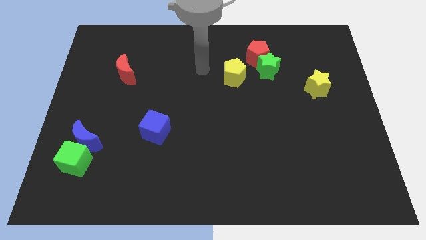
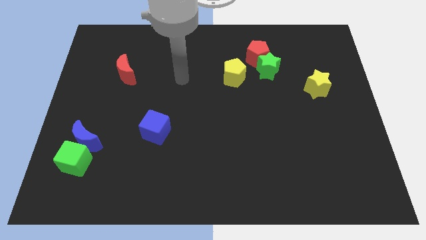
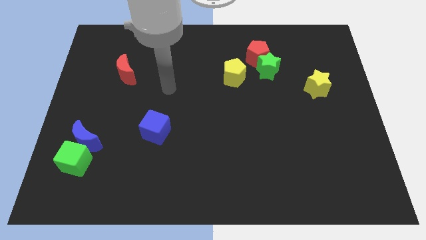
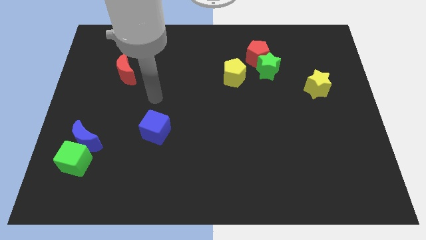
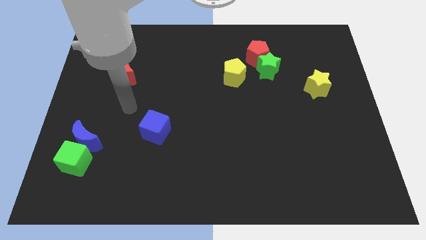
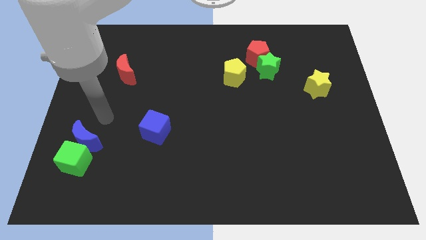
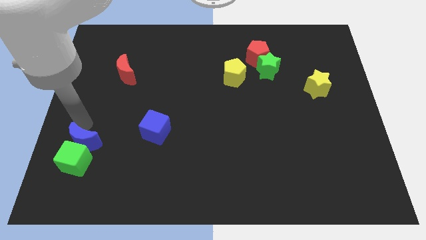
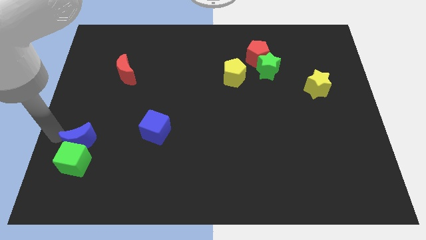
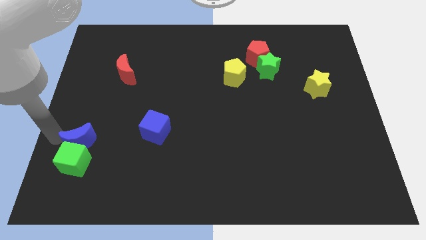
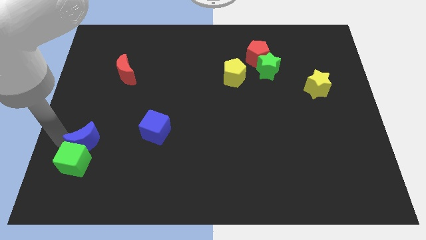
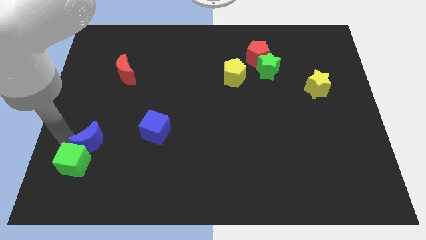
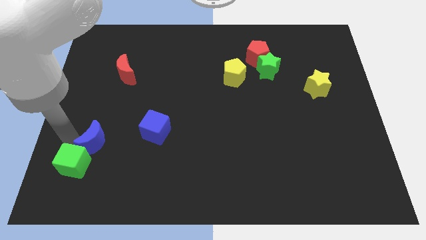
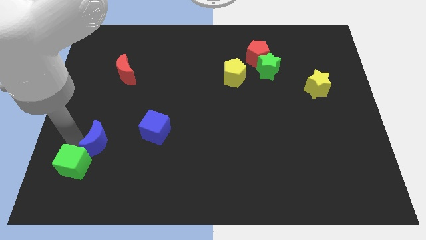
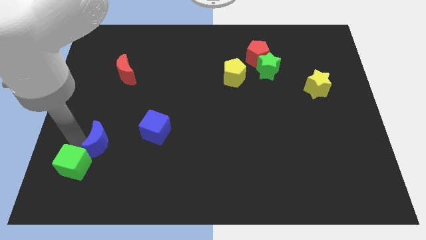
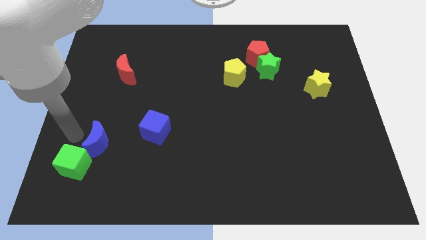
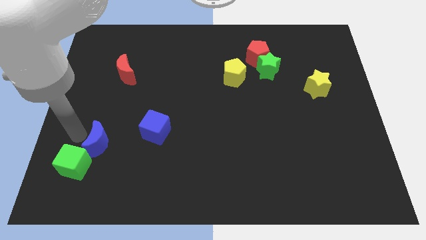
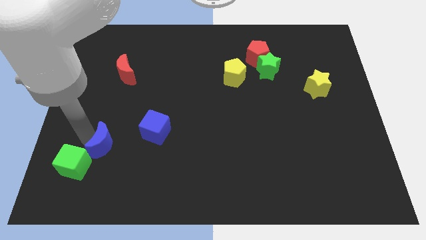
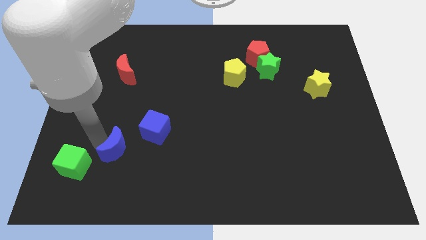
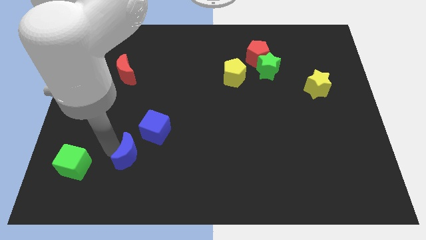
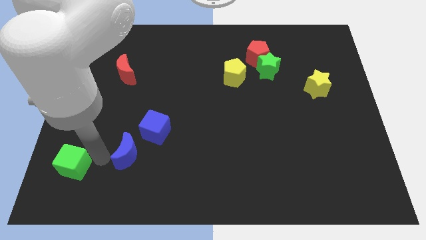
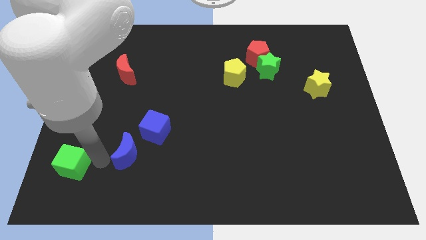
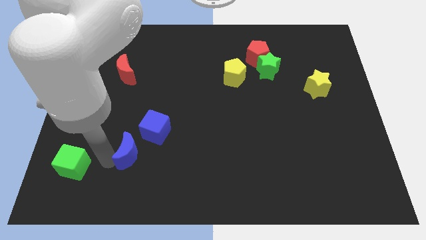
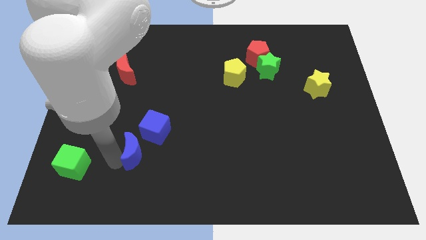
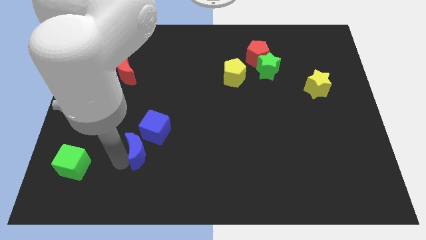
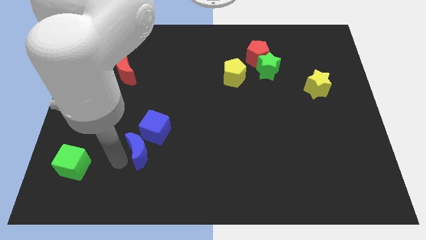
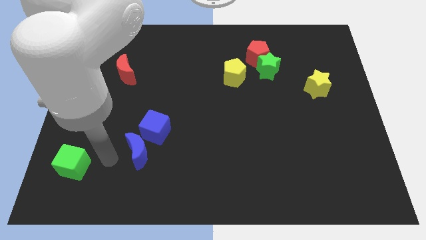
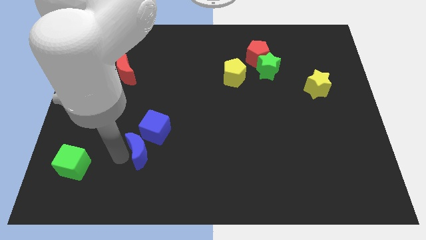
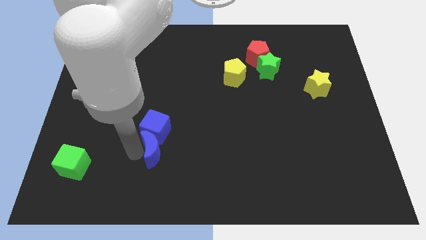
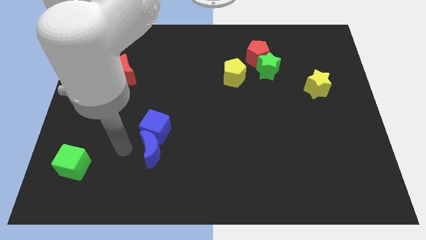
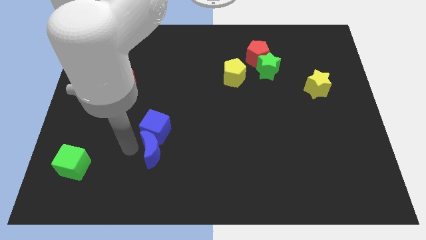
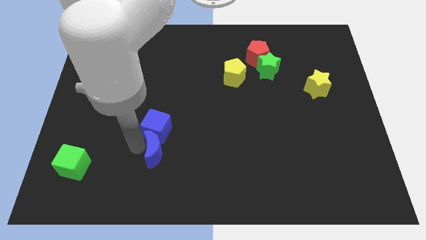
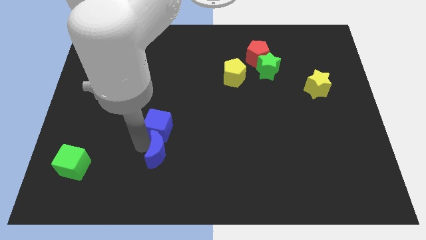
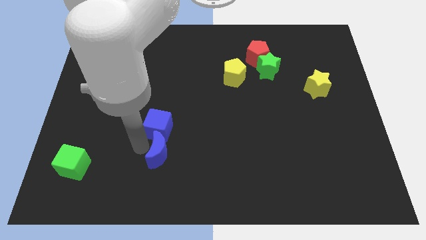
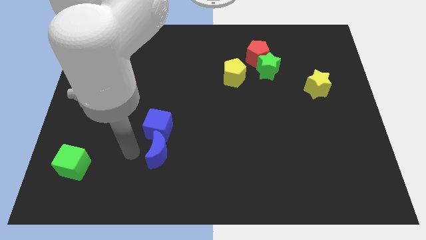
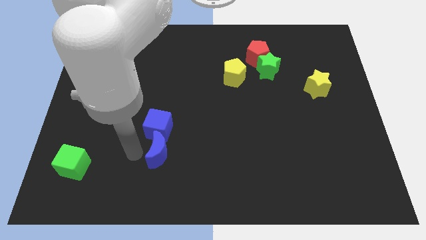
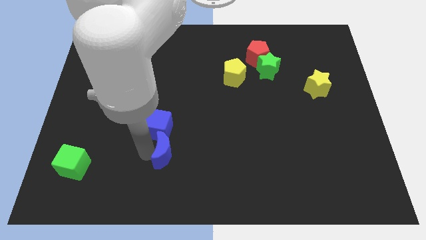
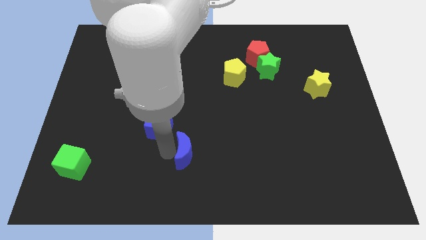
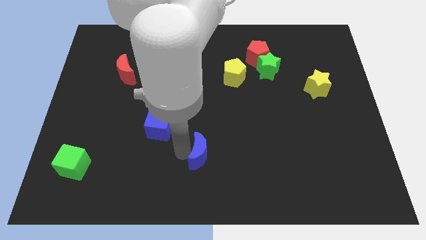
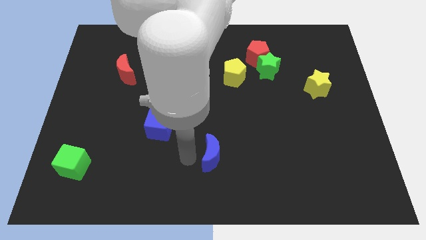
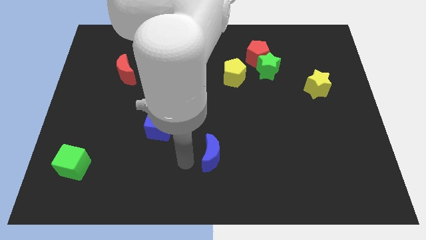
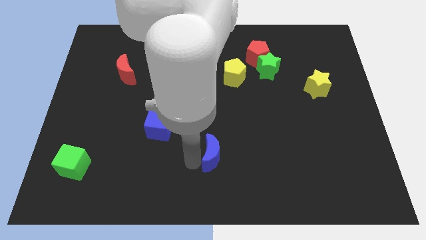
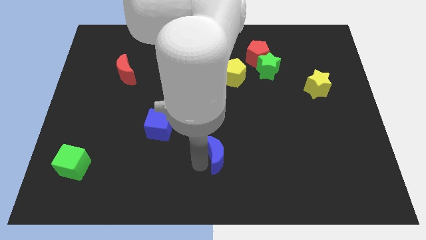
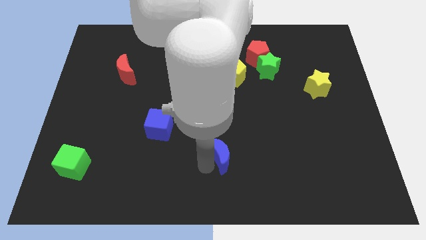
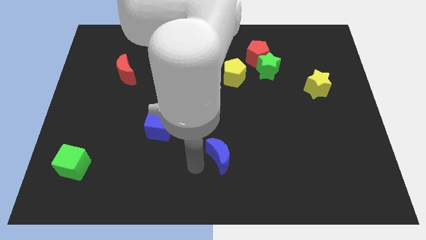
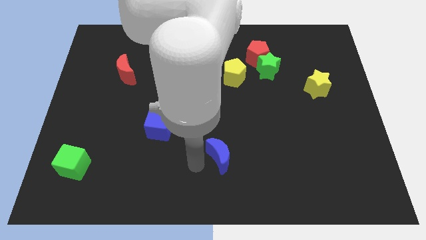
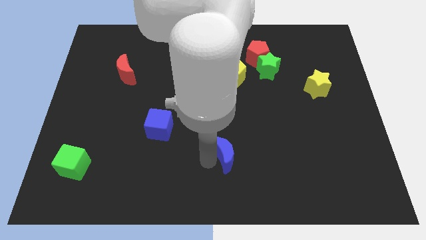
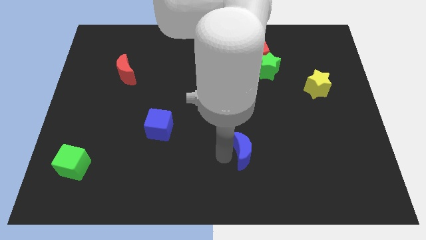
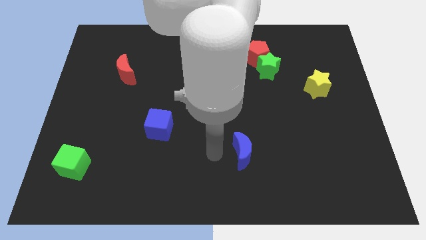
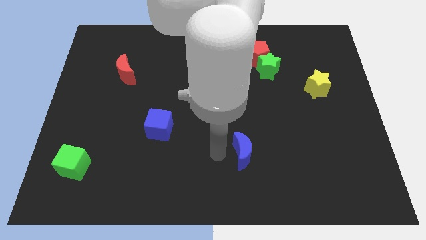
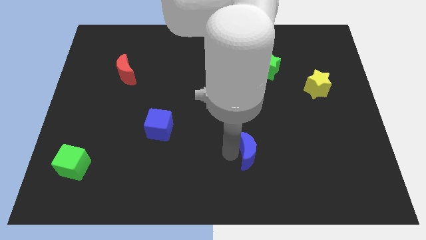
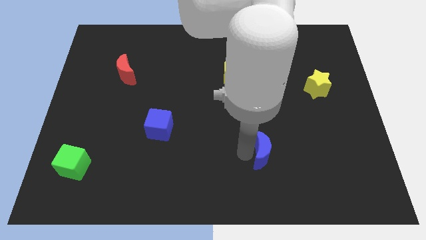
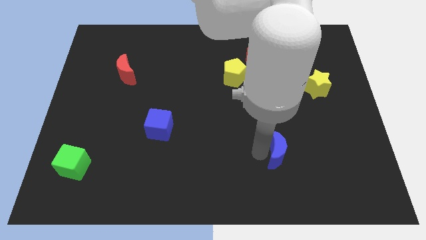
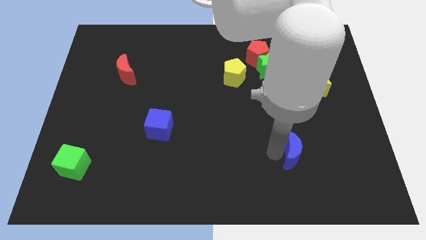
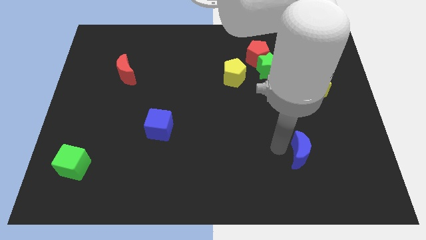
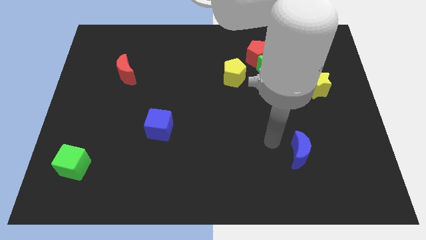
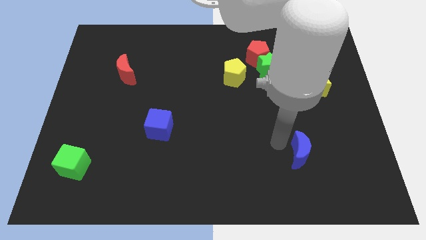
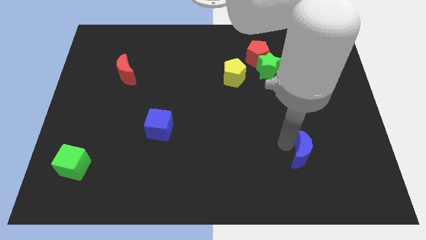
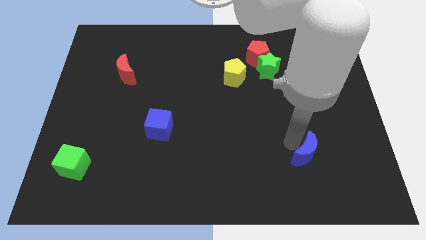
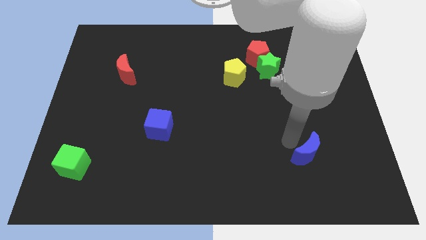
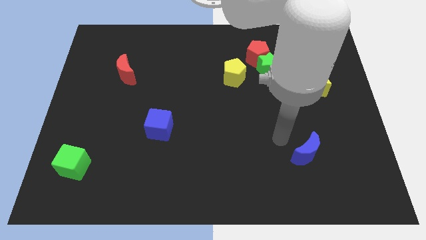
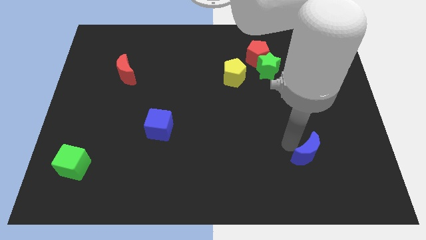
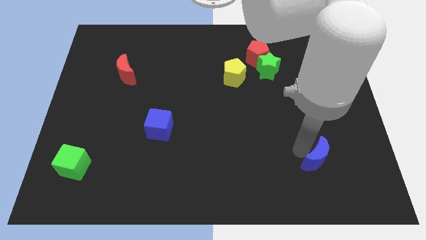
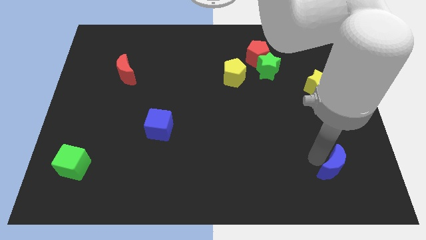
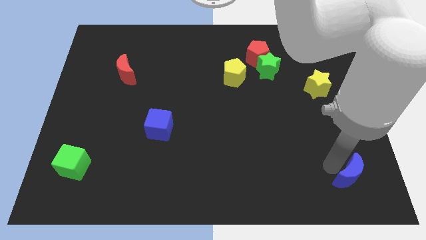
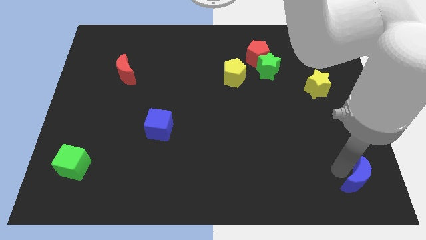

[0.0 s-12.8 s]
put the blue moon to the bottom right of the board

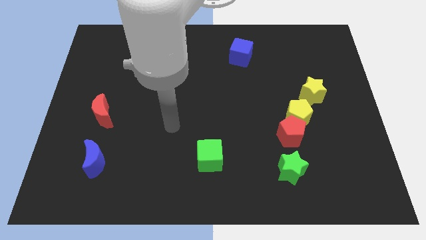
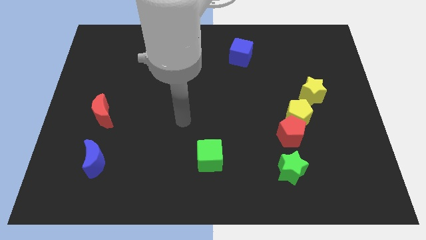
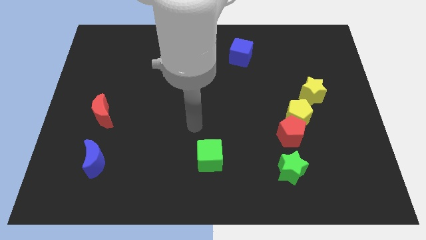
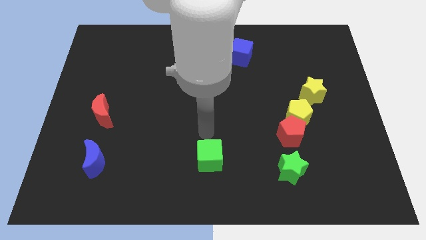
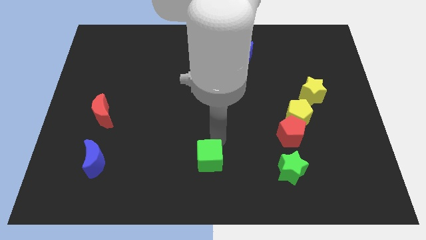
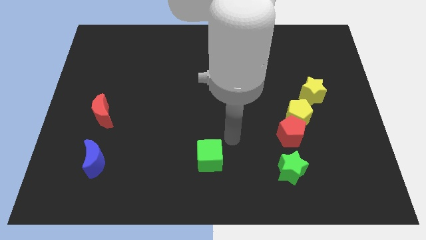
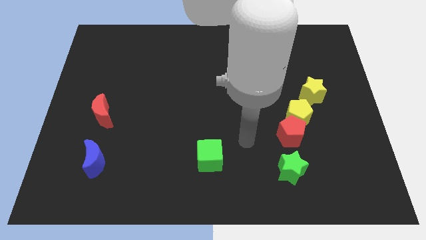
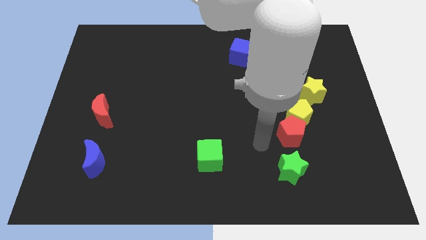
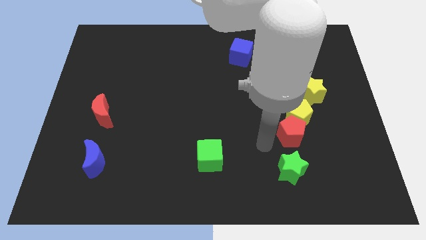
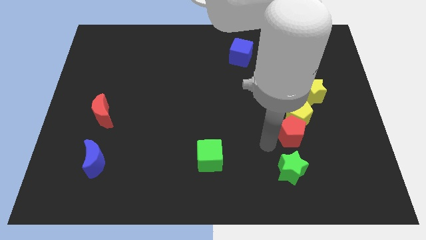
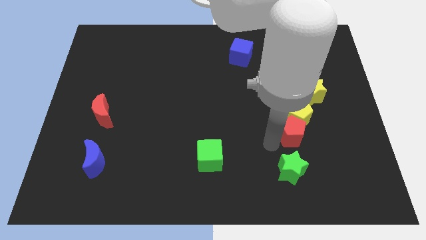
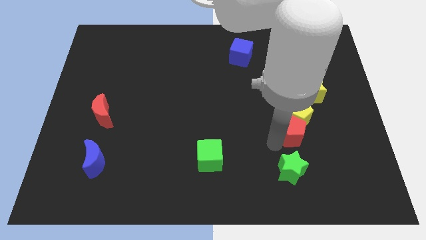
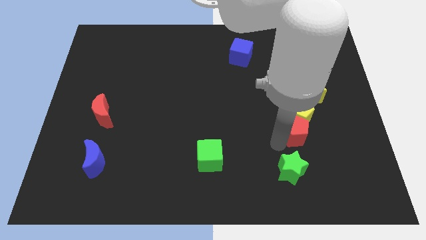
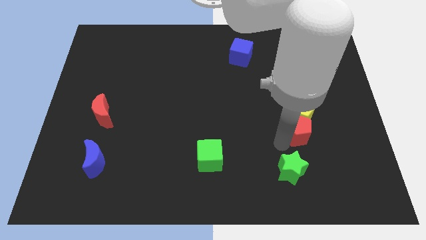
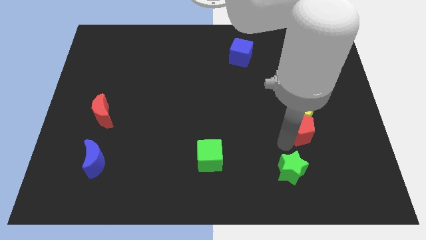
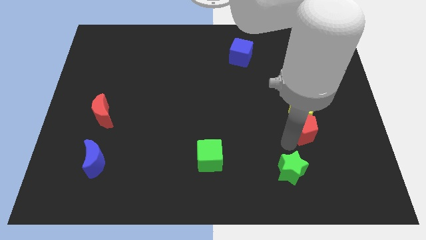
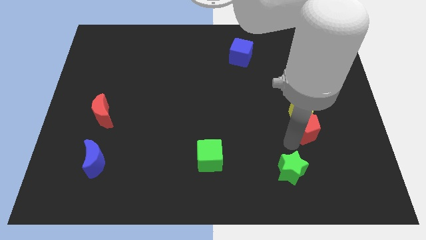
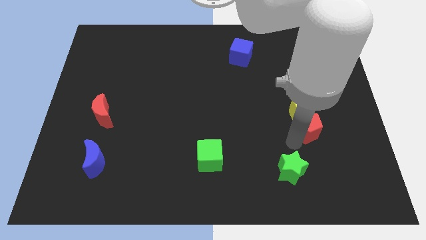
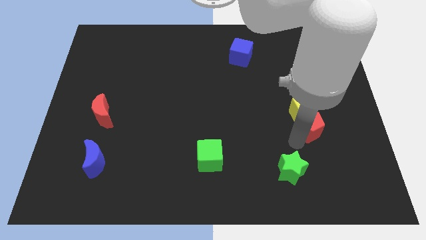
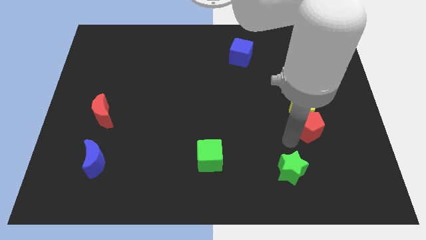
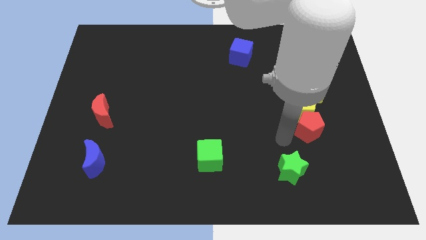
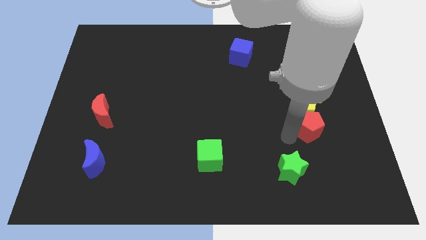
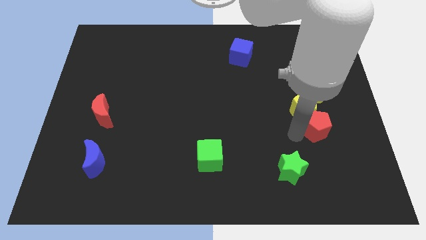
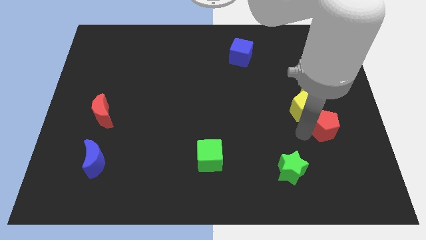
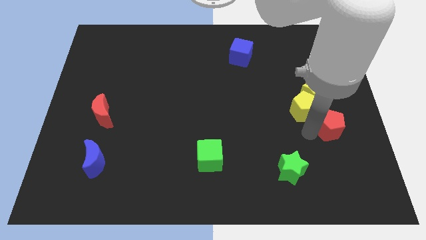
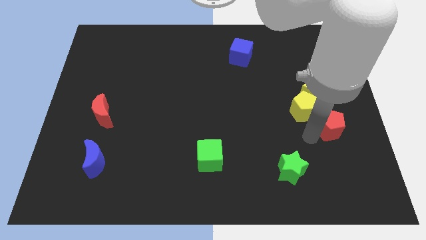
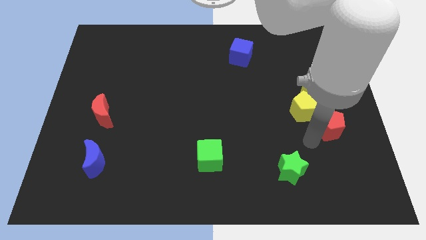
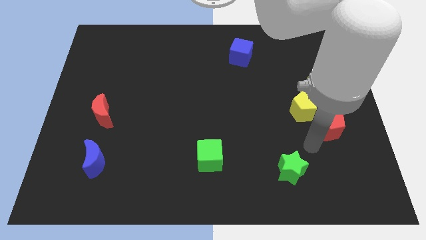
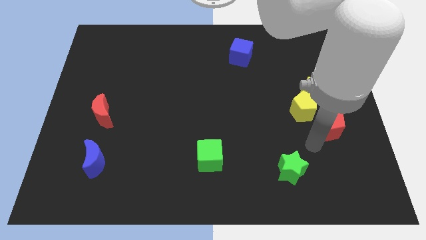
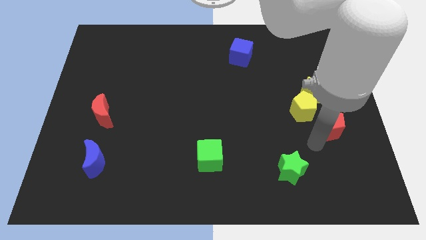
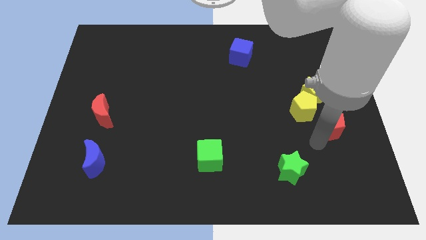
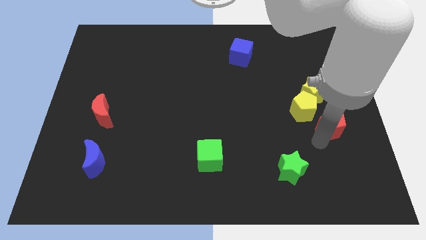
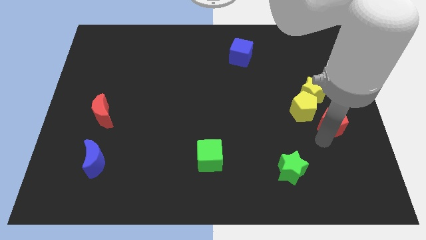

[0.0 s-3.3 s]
slide the red pentagon to the right side of the board
